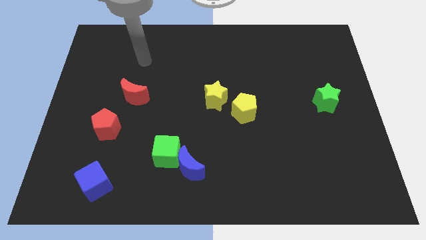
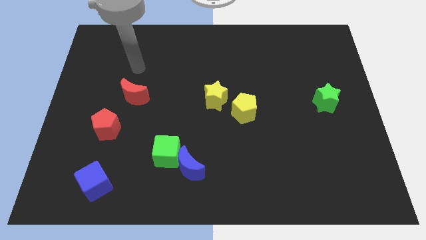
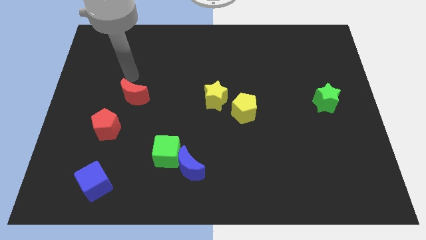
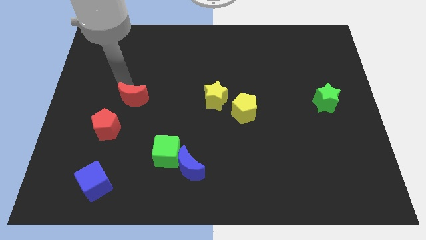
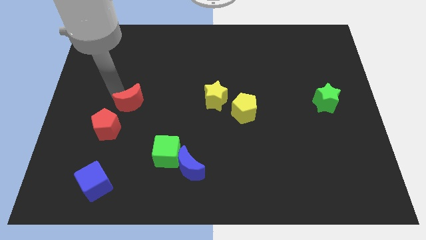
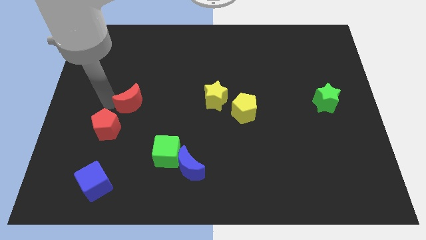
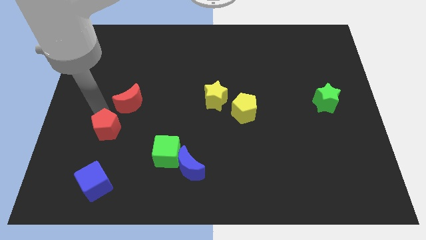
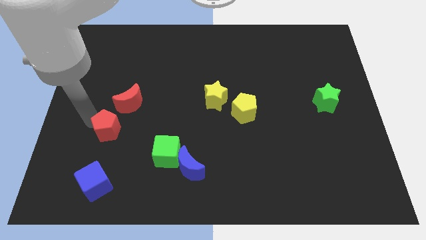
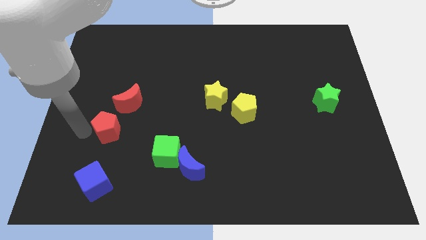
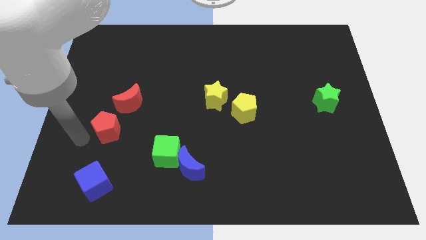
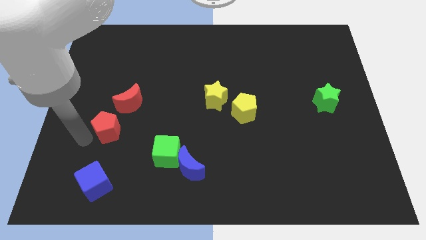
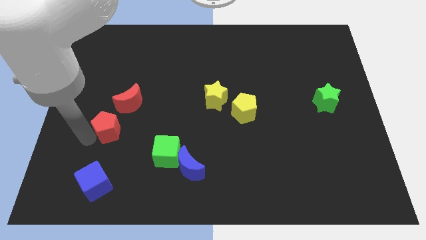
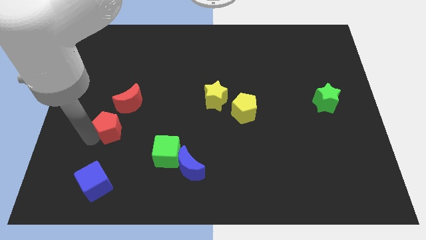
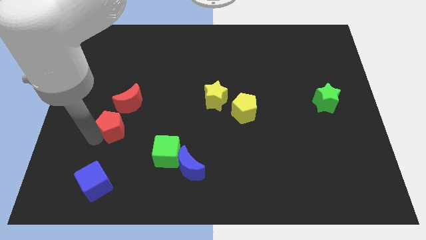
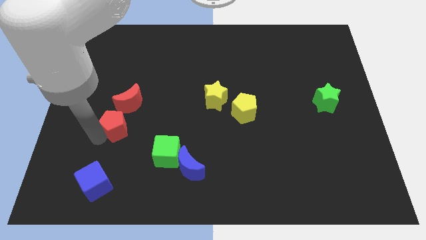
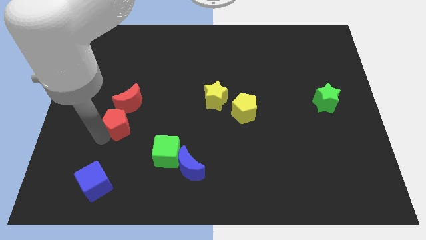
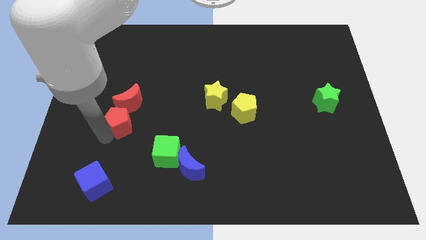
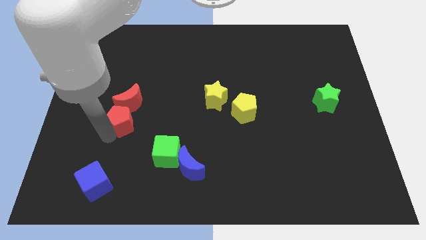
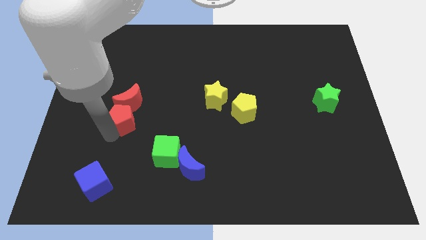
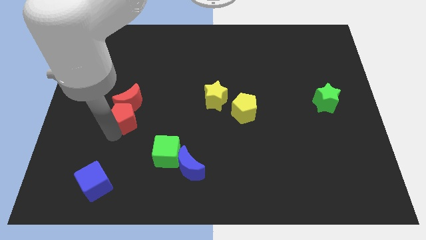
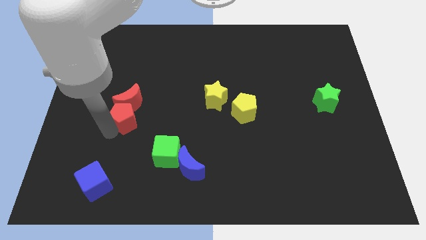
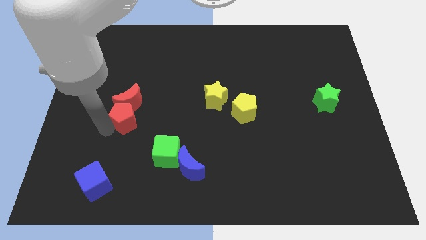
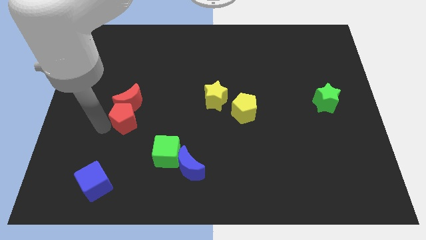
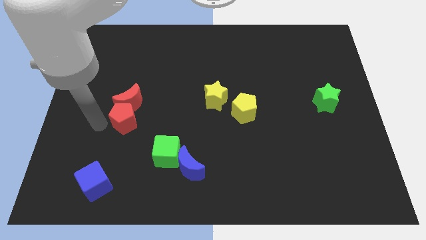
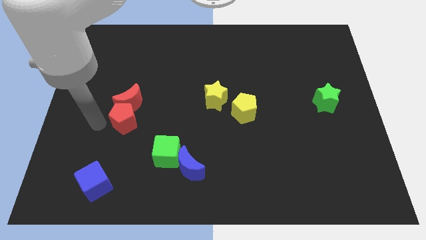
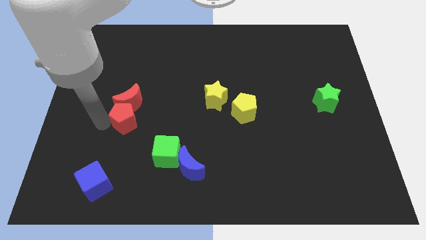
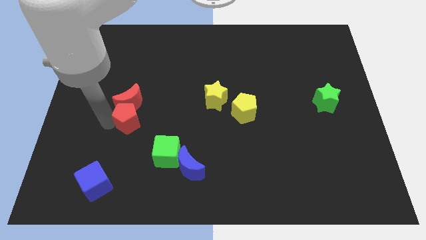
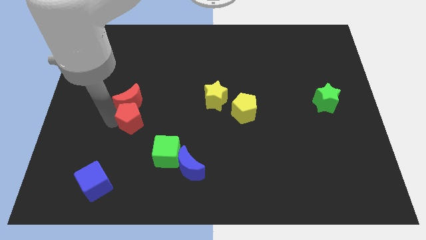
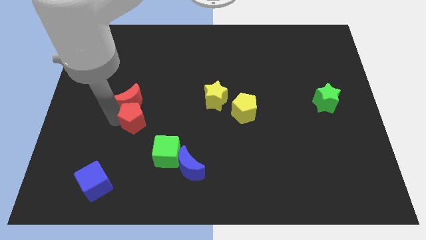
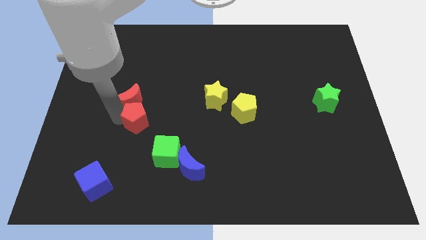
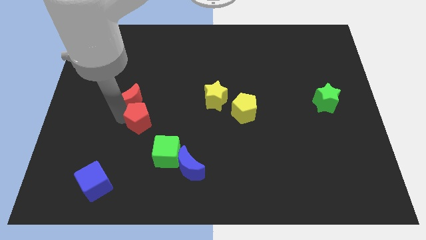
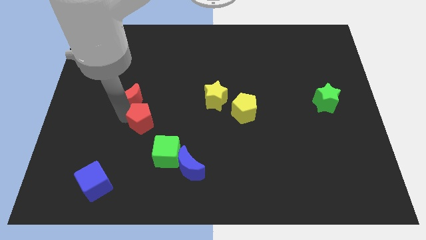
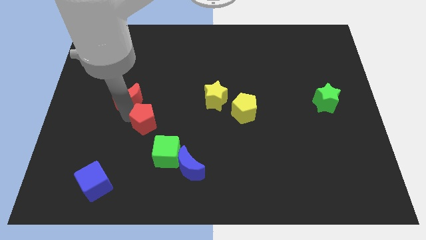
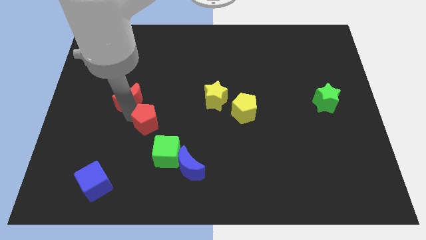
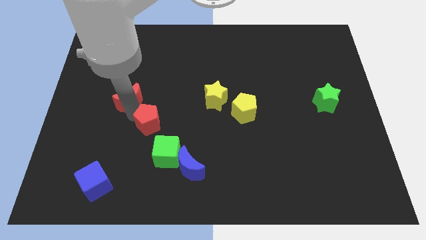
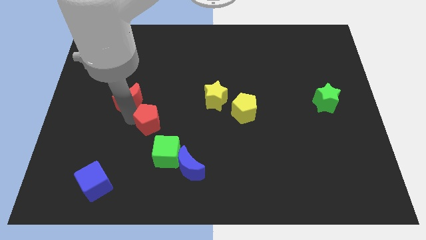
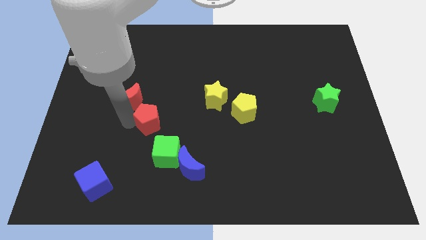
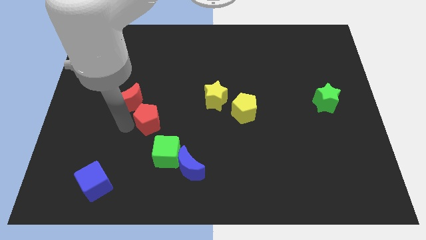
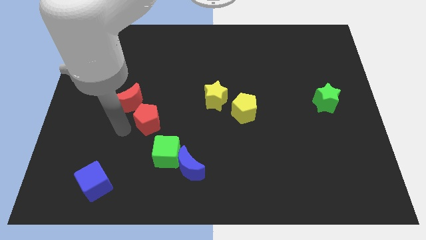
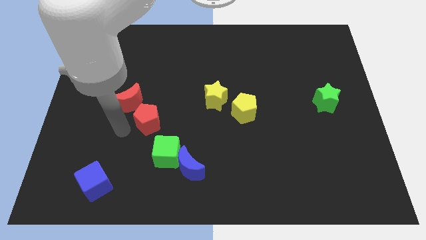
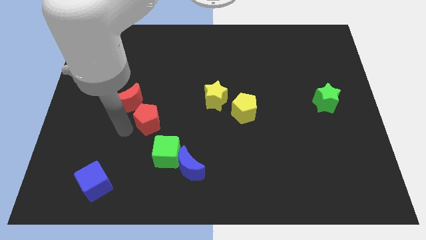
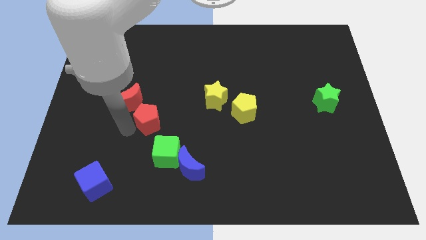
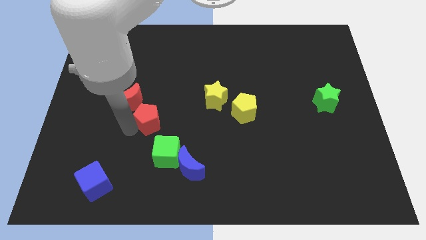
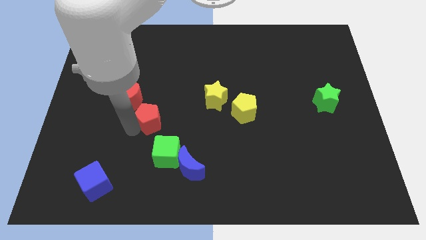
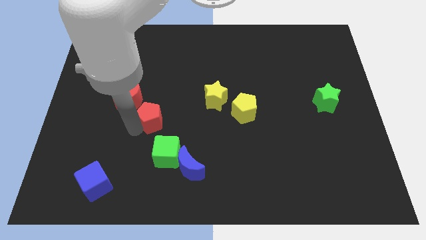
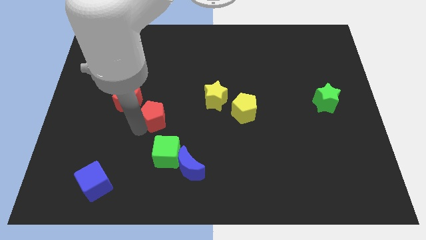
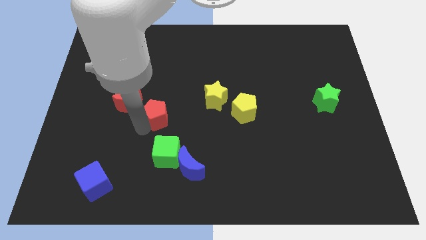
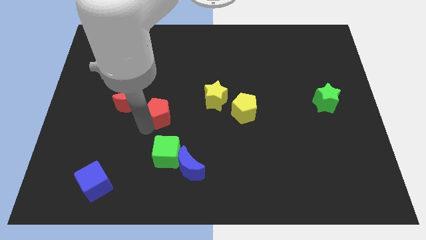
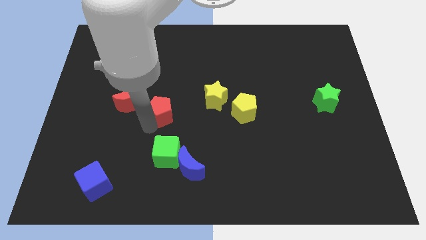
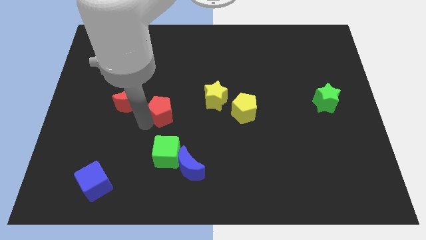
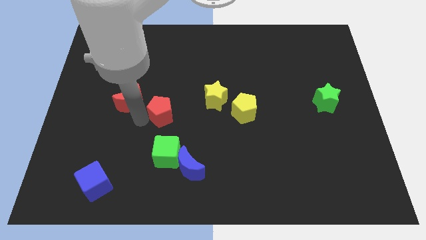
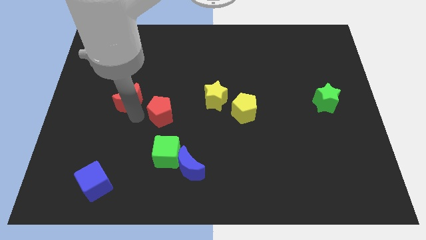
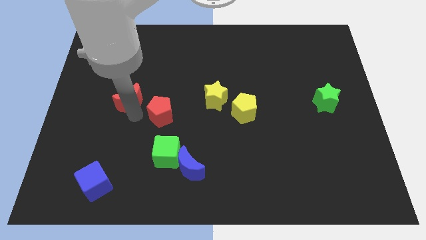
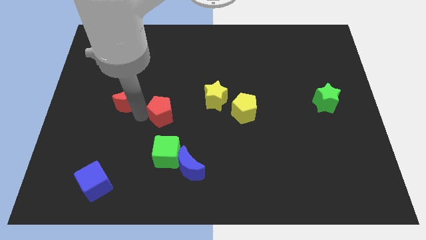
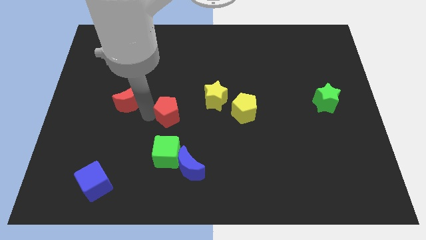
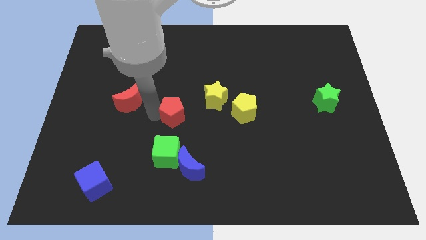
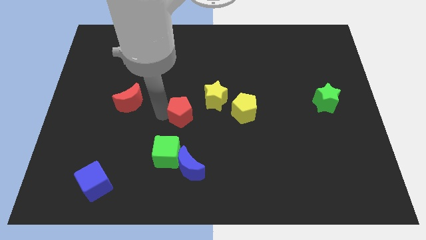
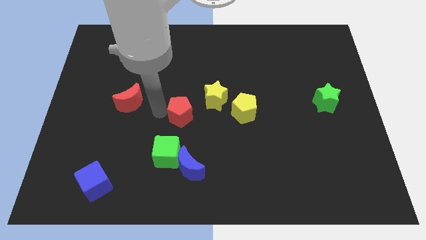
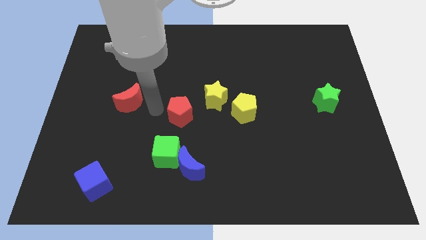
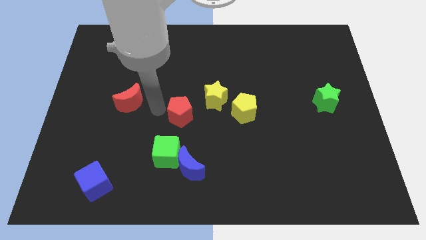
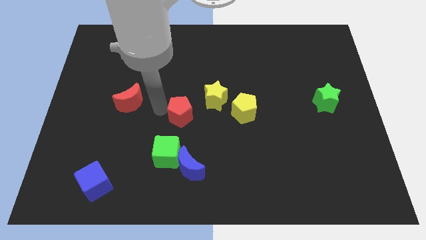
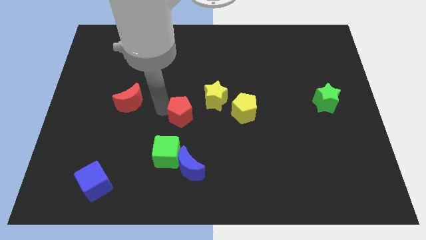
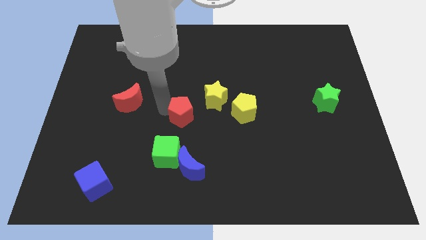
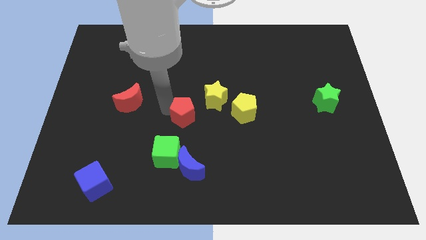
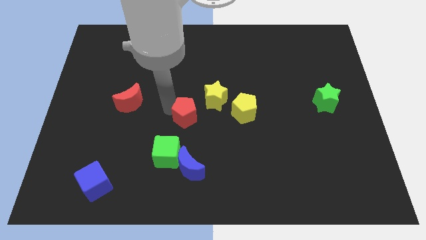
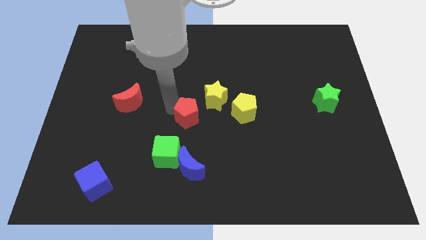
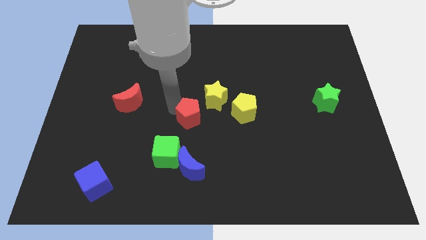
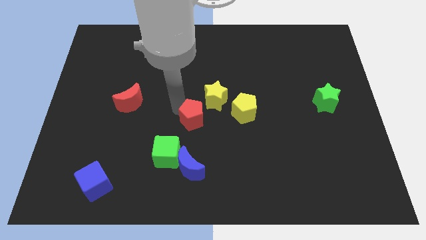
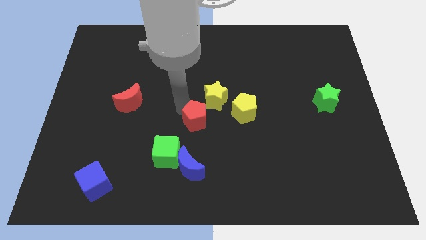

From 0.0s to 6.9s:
push the red pentagon to the right

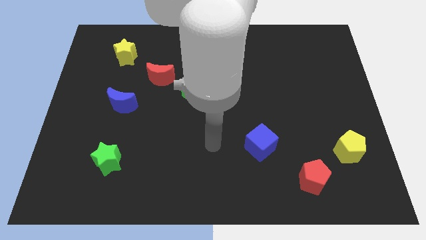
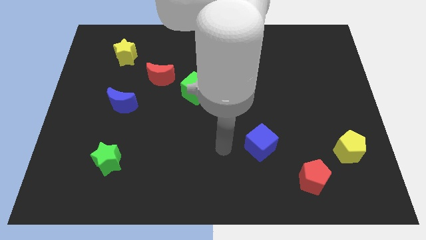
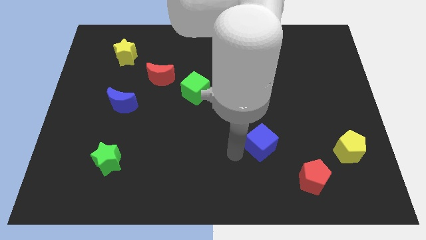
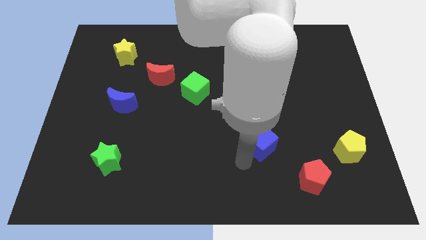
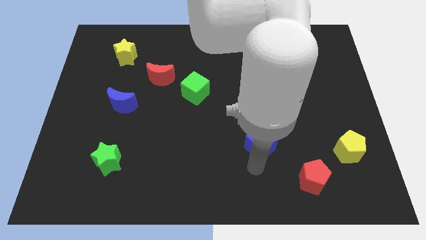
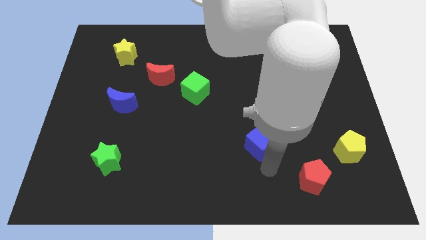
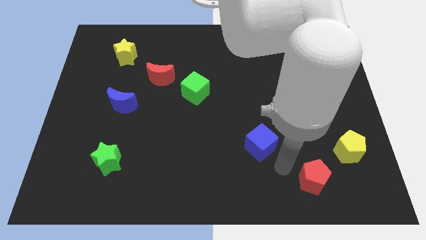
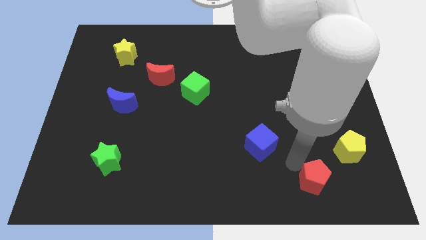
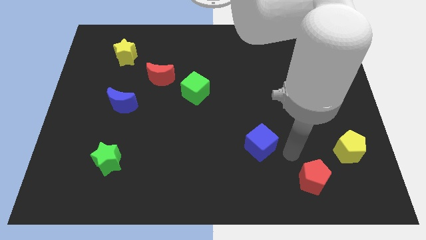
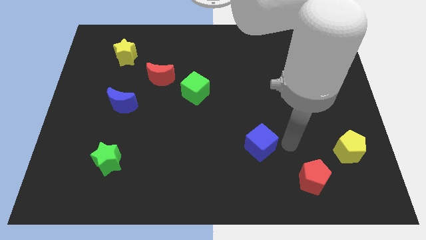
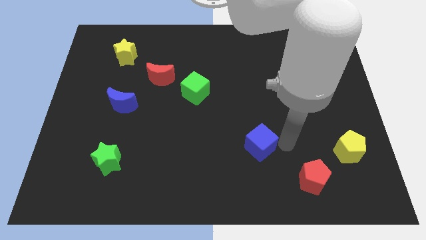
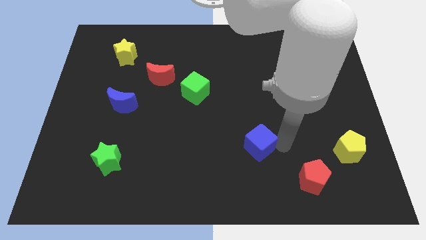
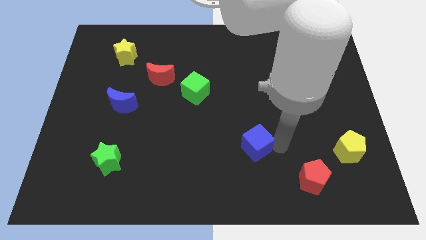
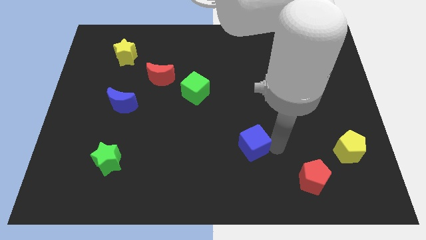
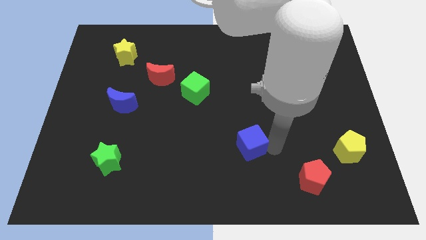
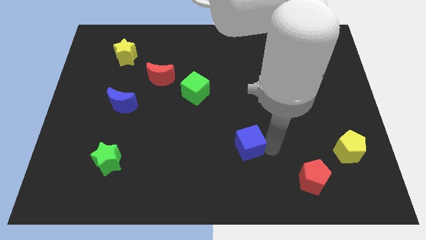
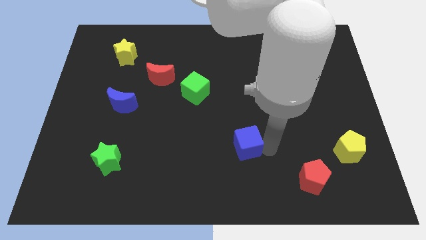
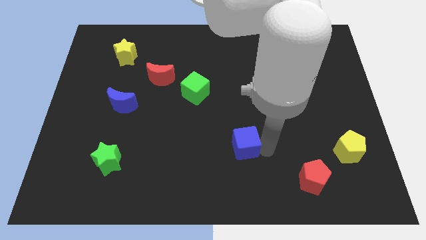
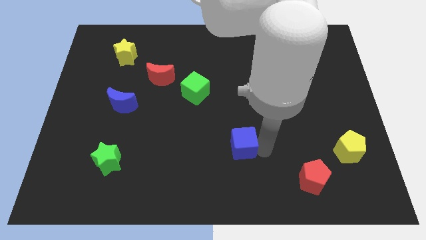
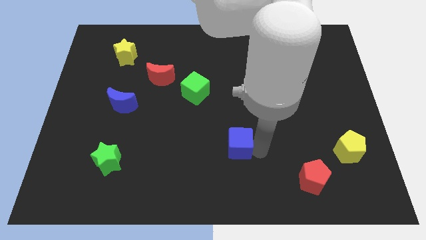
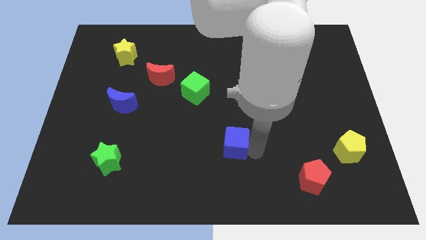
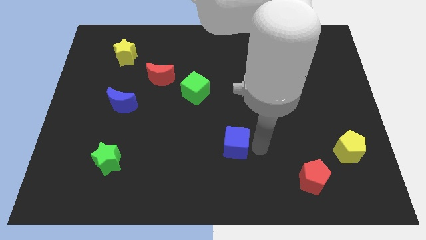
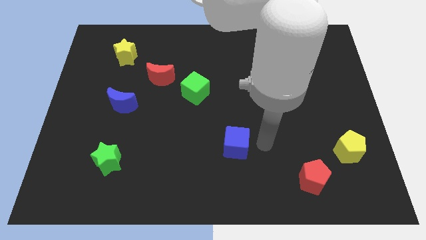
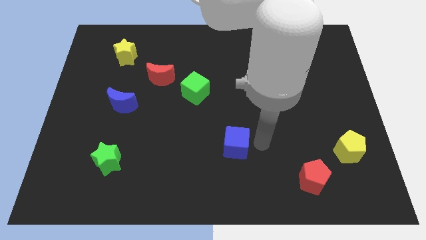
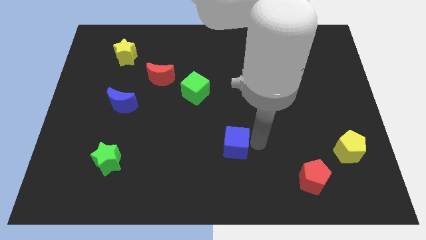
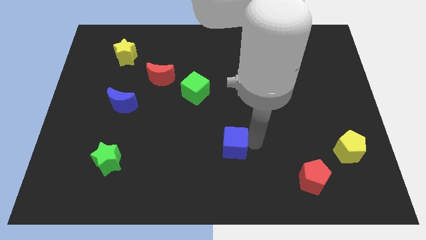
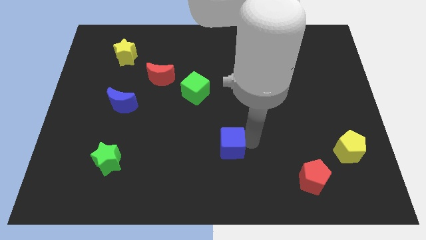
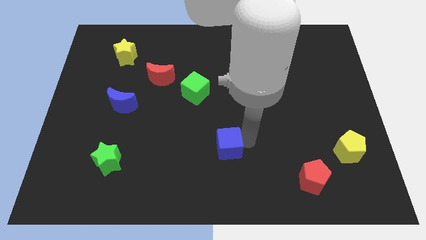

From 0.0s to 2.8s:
slightly push the blue cube to the left
